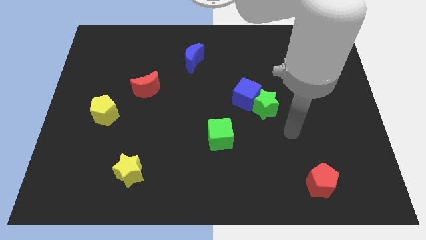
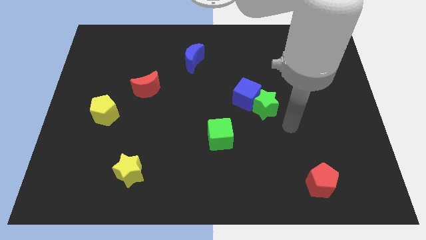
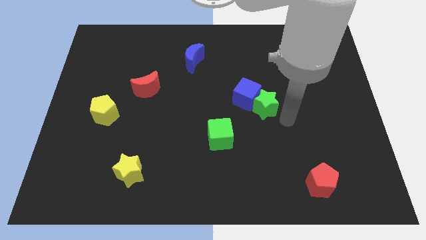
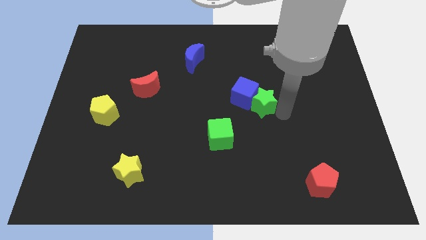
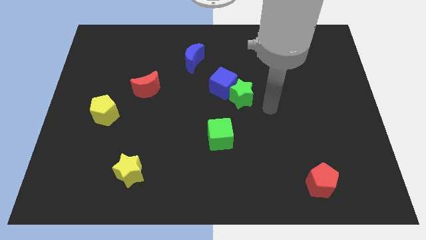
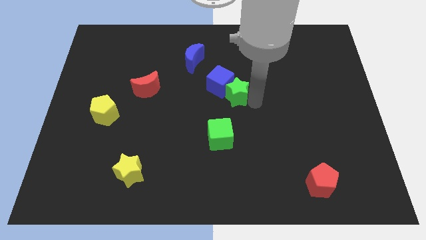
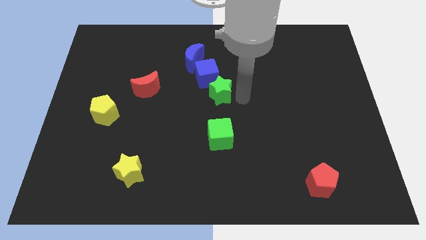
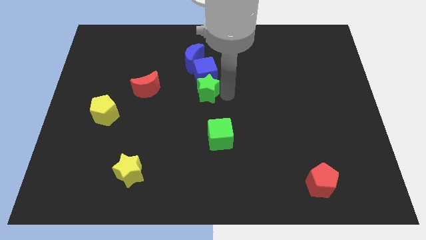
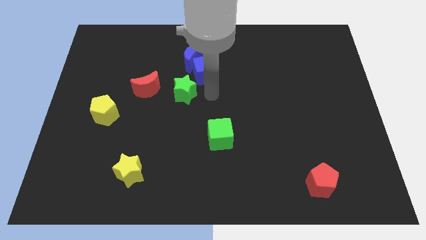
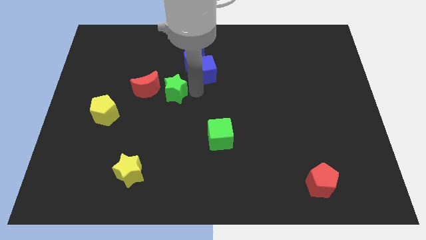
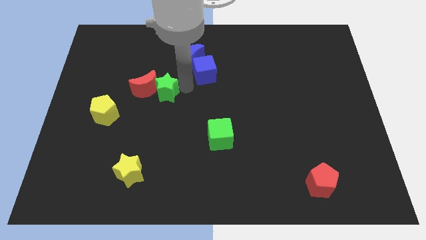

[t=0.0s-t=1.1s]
move the blue cube away from the green star

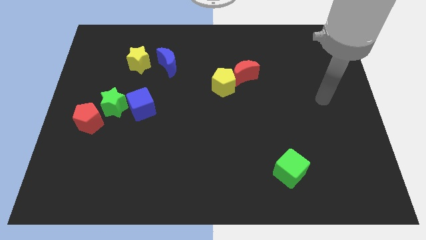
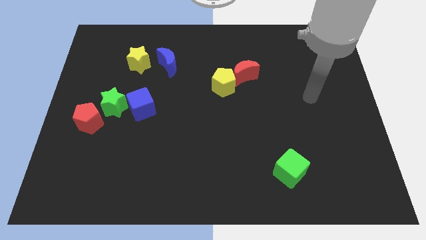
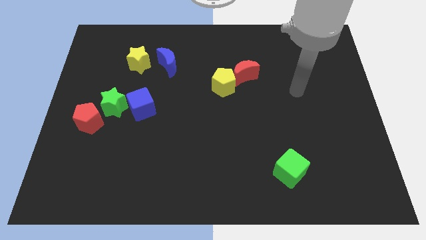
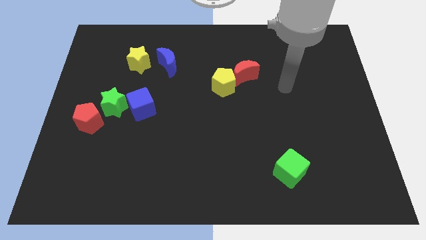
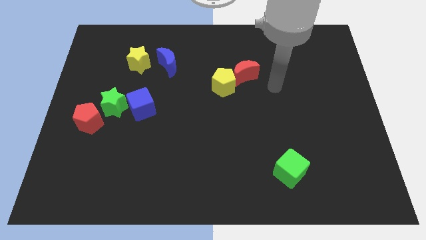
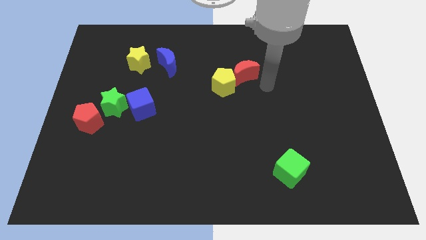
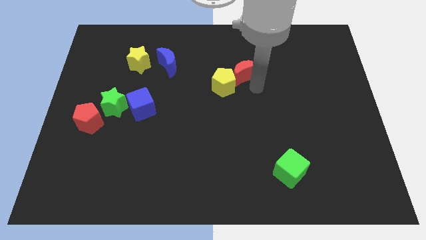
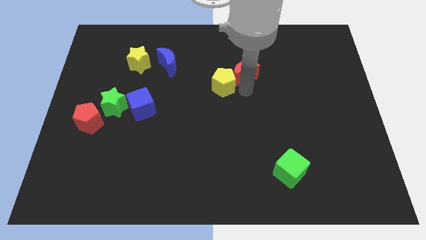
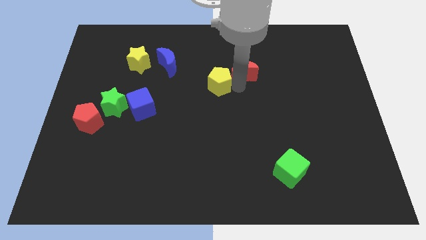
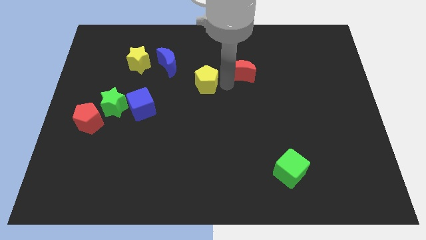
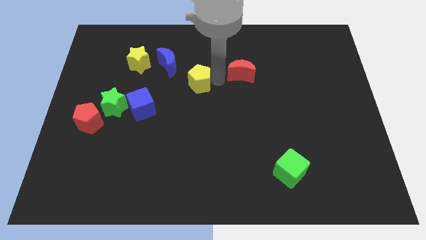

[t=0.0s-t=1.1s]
separate the red moon from the yellow pentagon

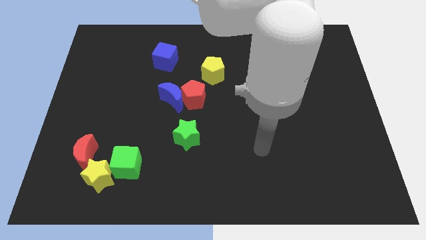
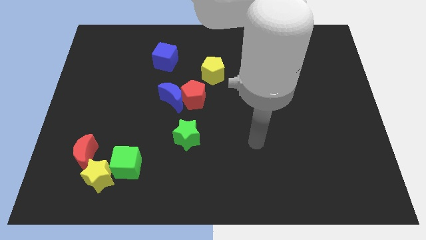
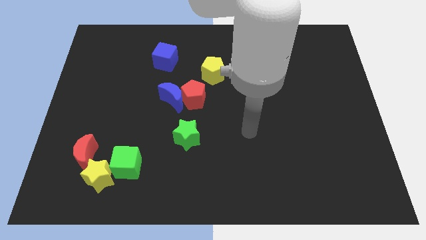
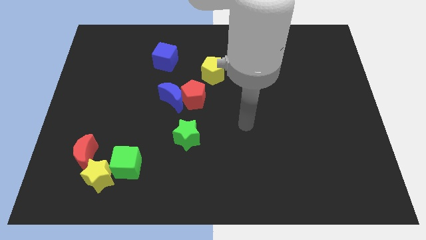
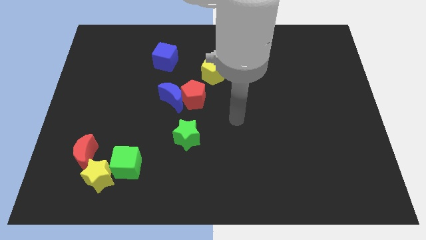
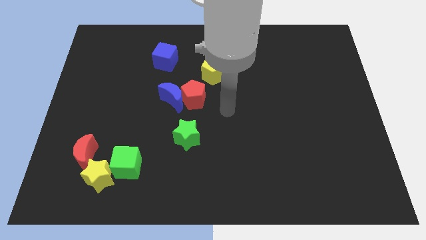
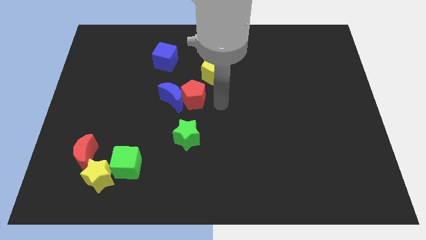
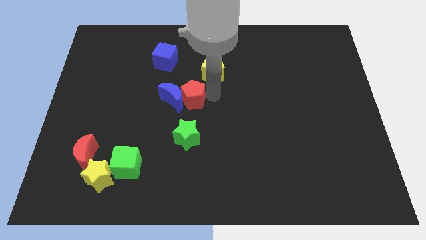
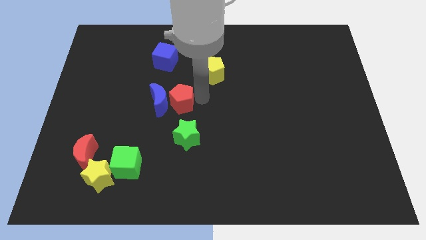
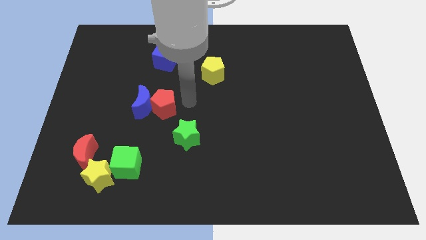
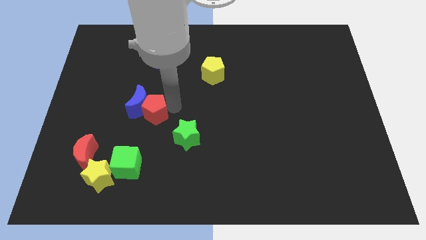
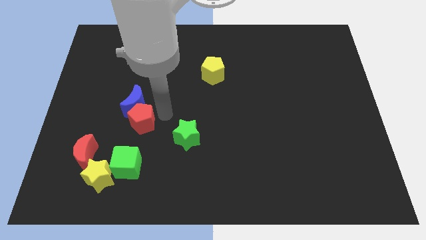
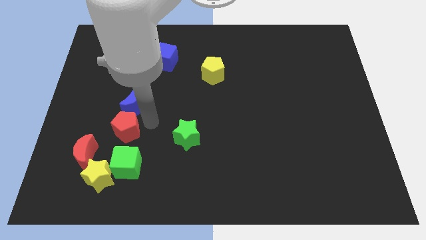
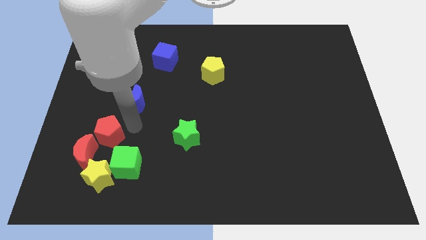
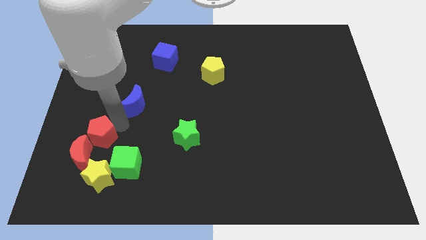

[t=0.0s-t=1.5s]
move the blue moon away from the red pentagon

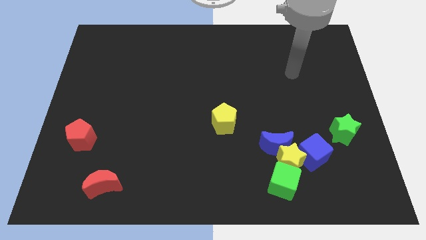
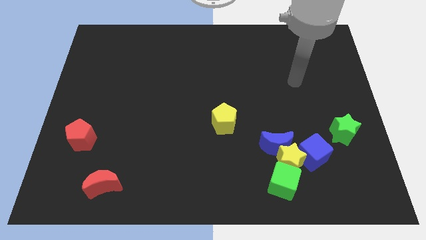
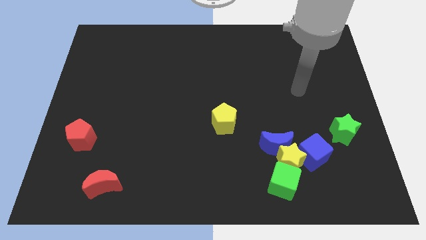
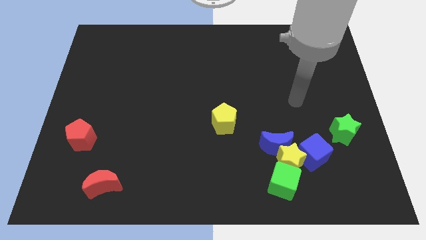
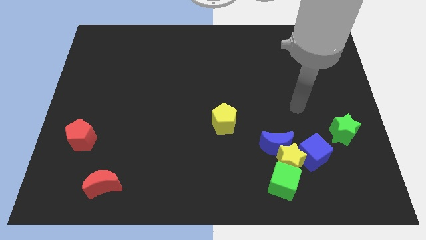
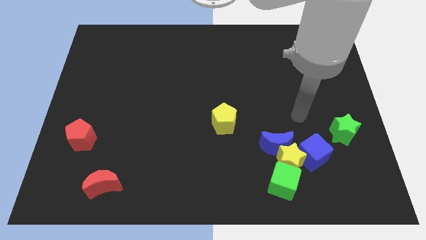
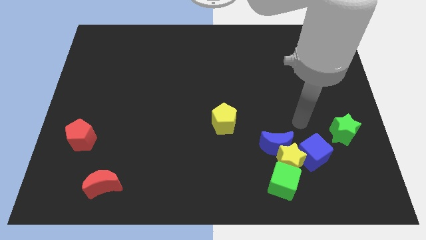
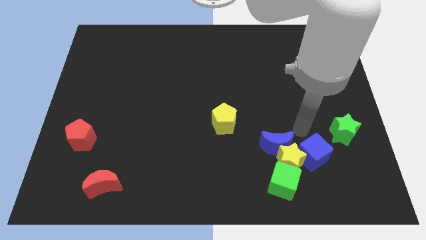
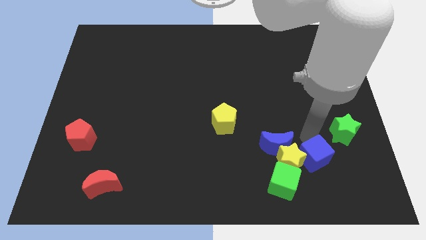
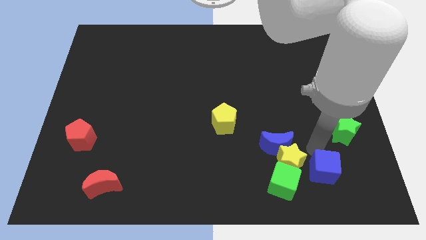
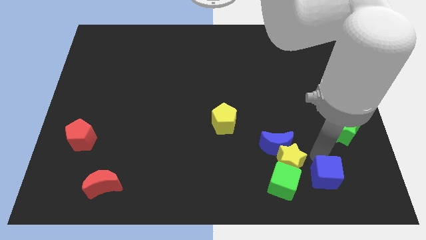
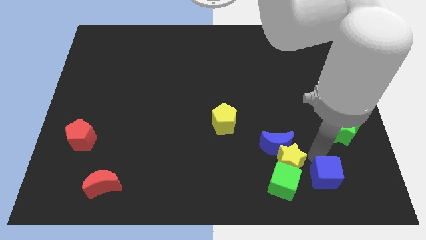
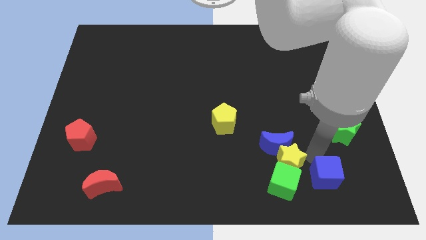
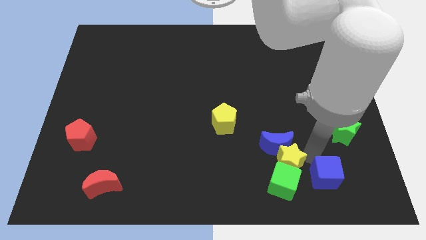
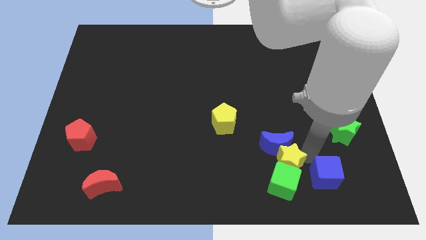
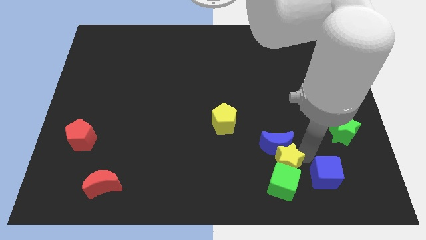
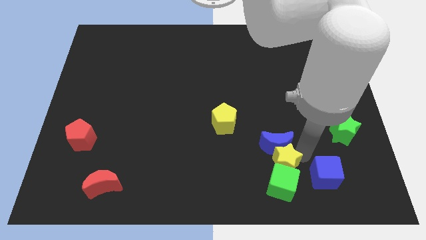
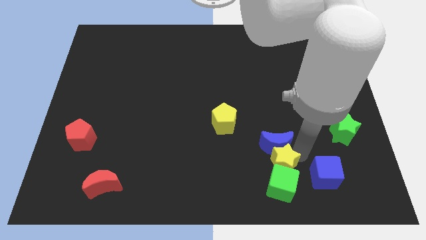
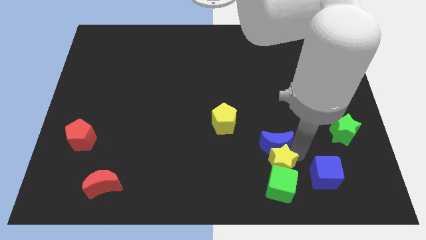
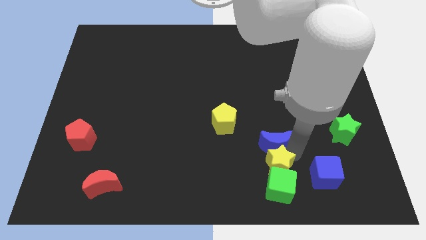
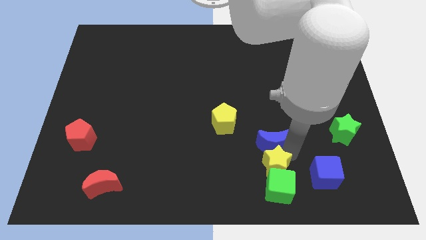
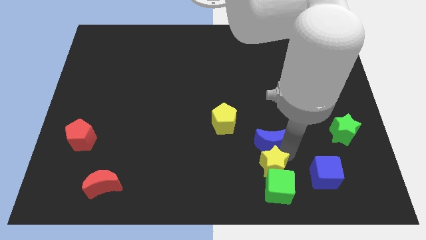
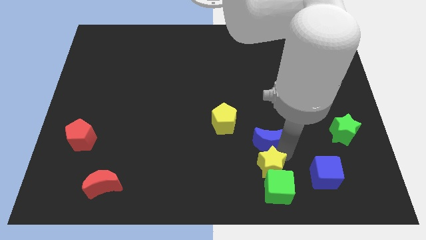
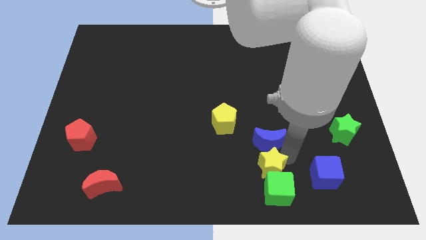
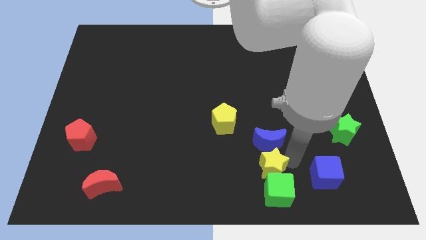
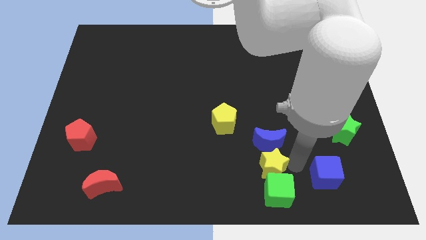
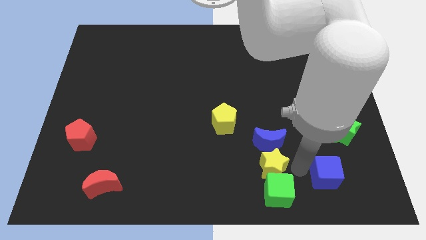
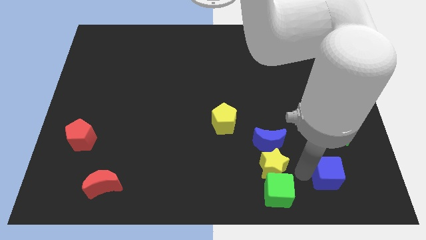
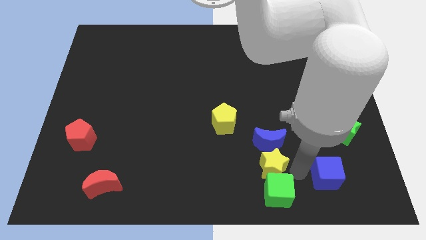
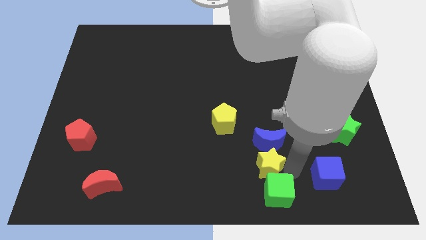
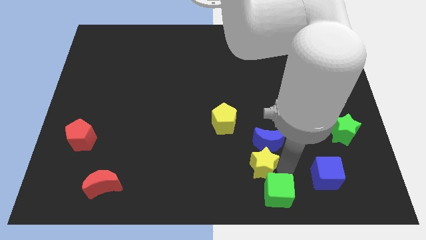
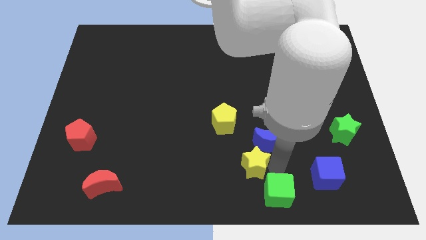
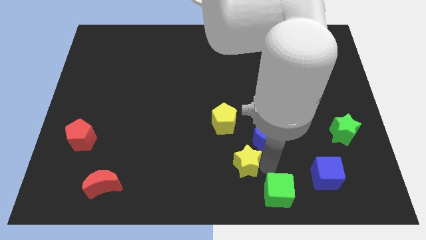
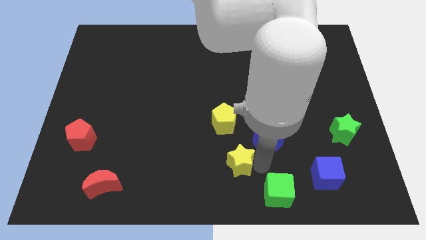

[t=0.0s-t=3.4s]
pull the yellow star apart from the blue moon, blue cube, and green cube

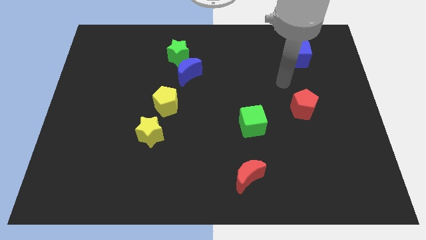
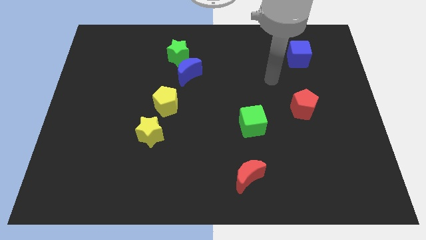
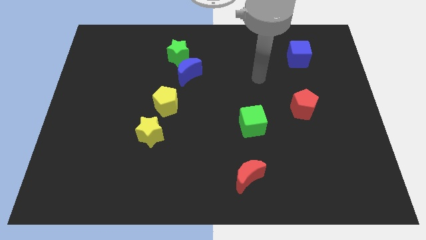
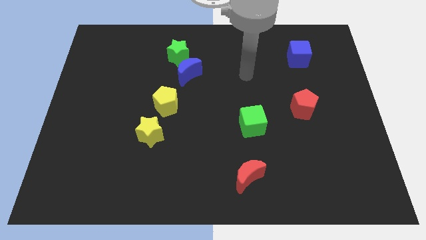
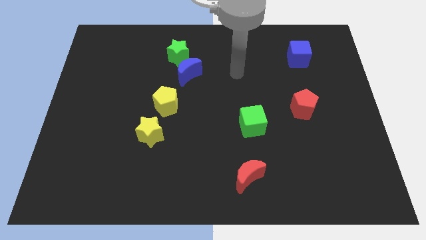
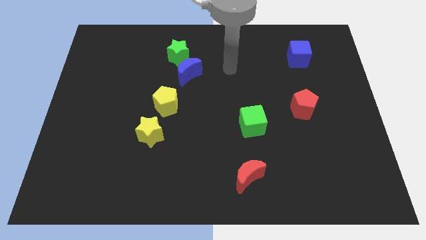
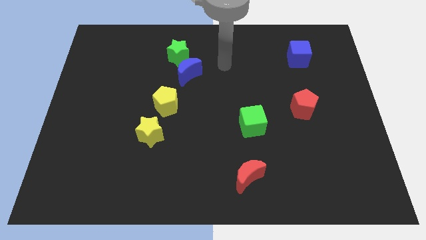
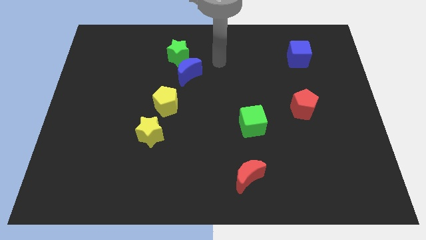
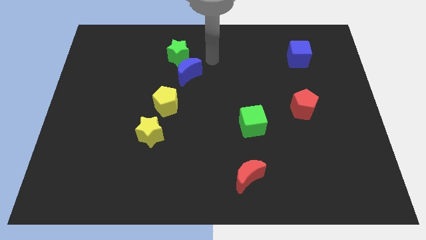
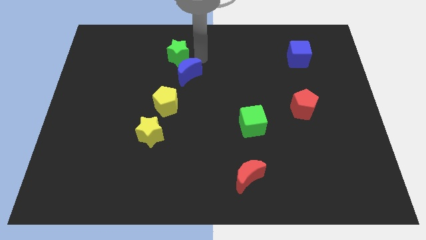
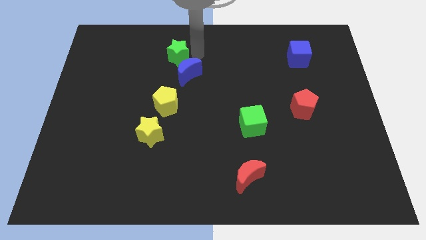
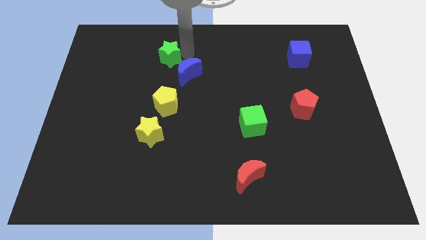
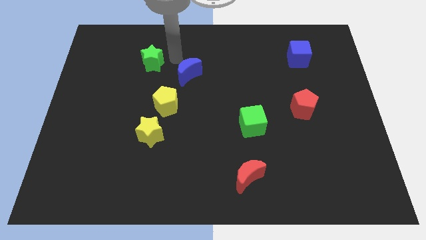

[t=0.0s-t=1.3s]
separate the blue moon from the green star

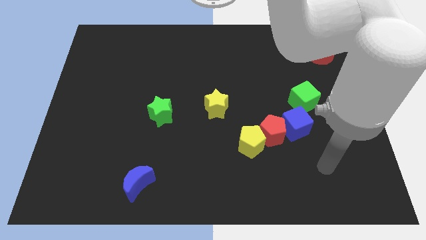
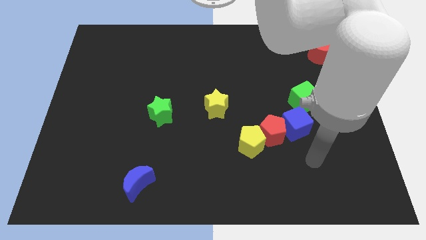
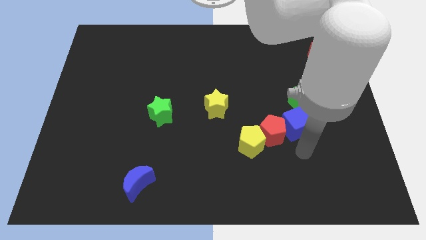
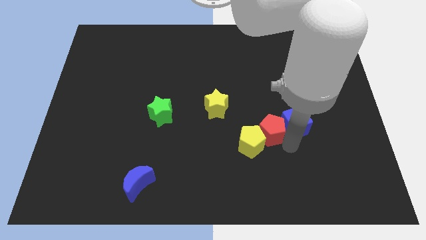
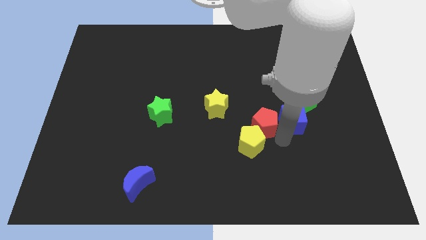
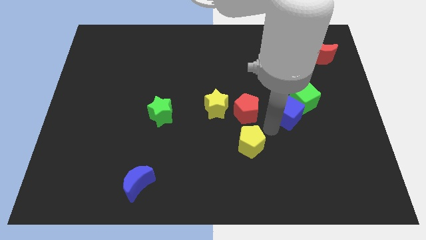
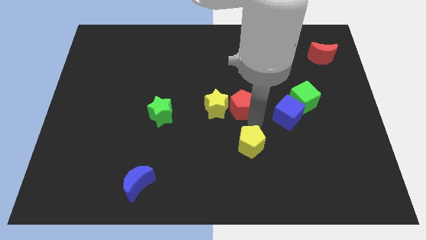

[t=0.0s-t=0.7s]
separate the yellow pentagon from the red pentagon
